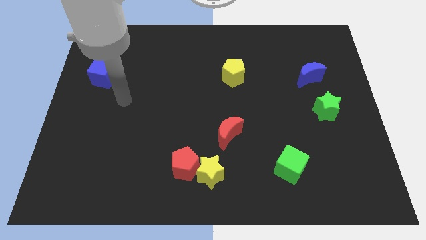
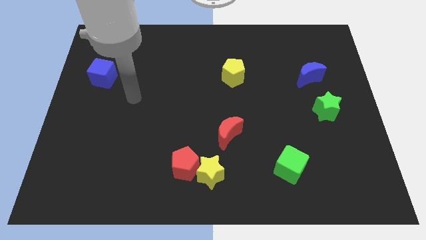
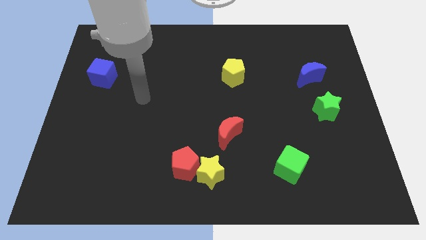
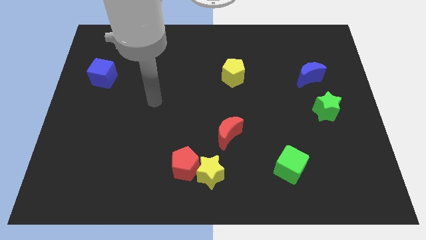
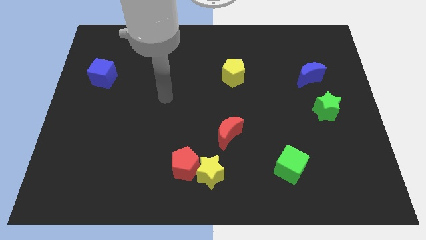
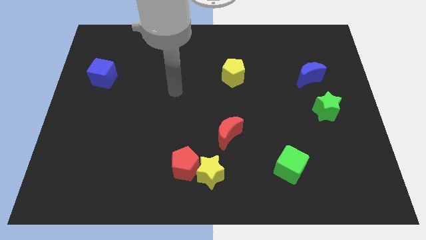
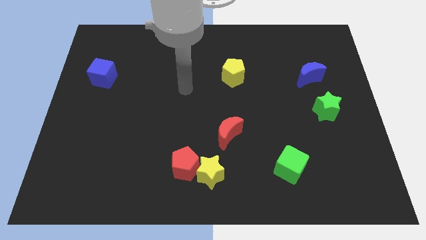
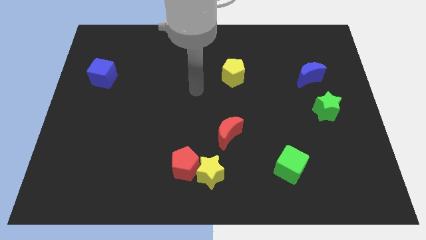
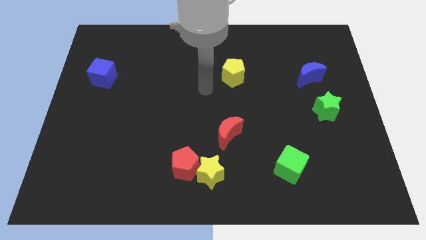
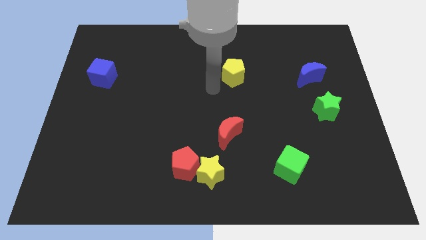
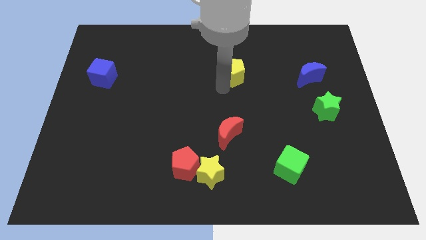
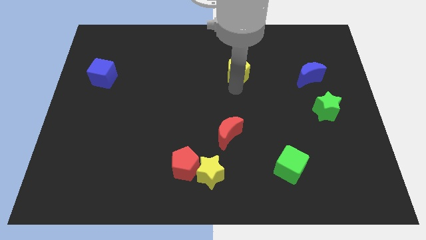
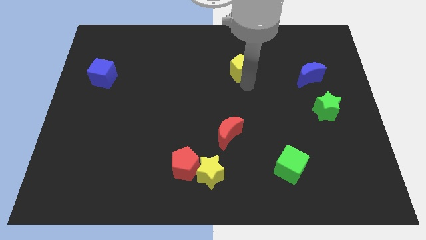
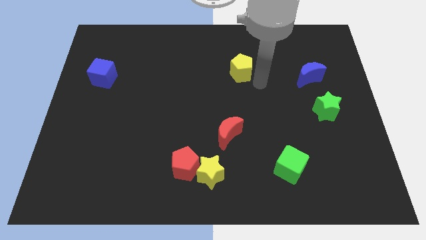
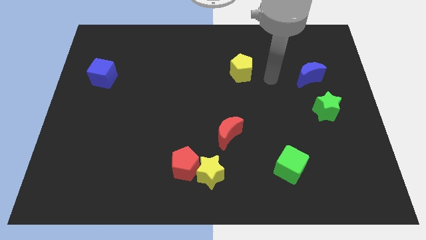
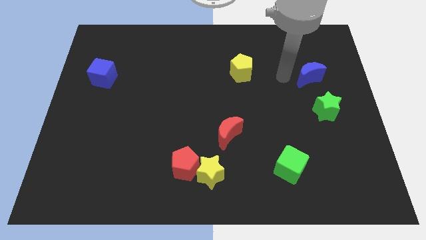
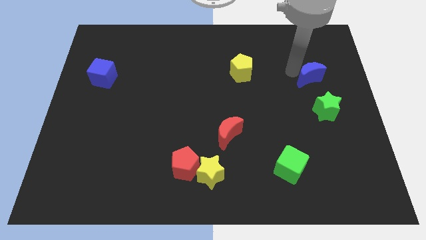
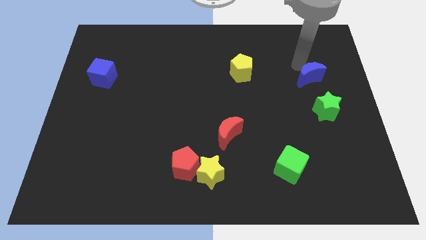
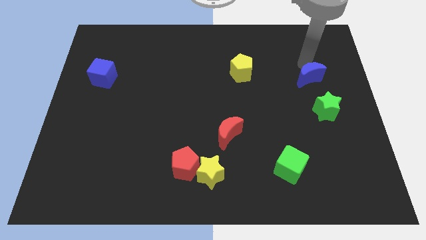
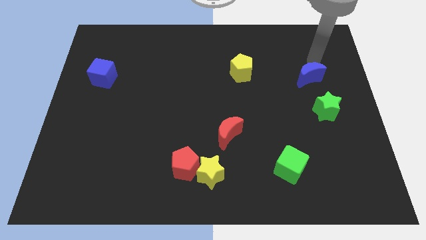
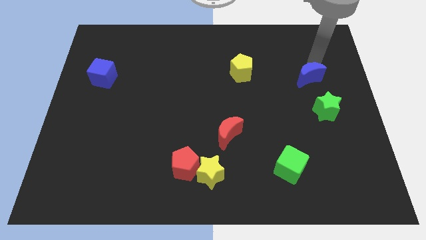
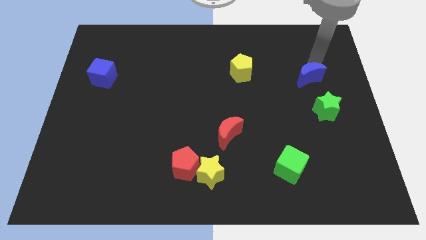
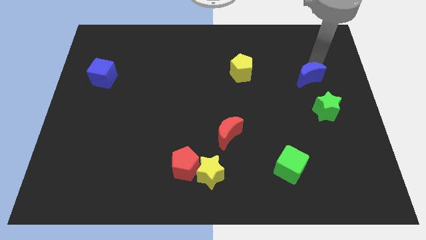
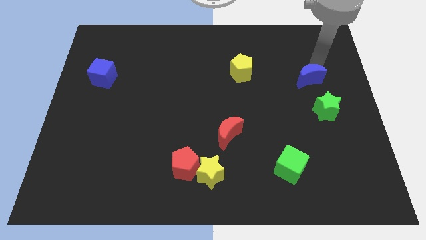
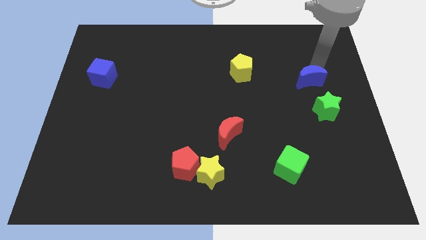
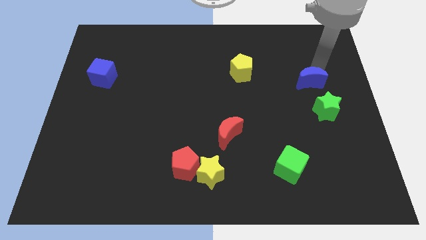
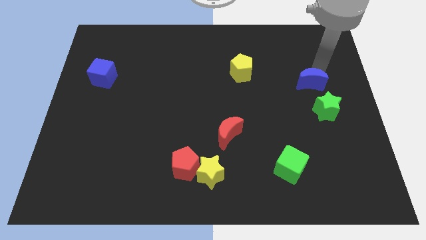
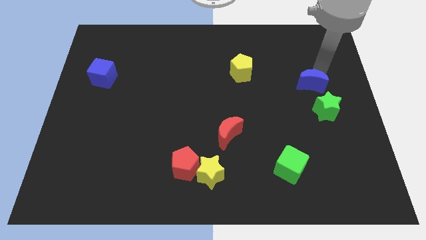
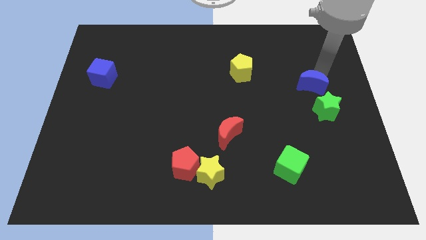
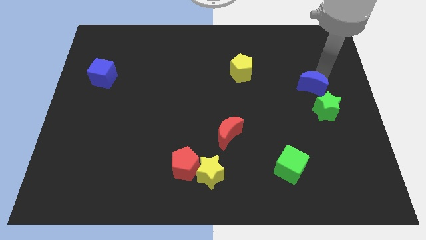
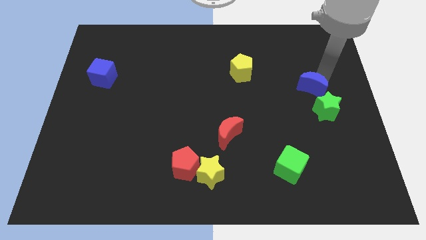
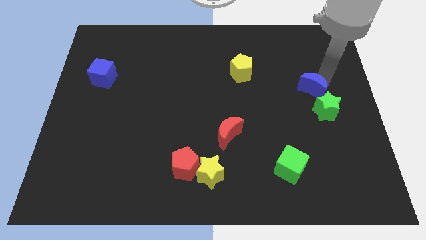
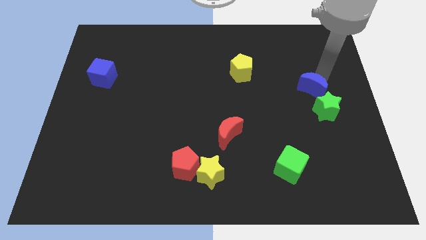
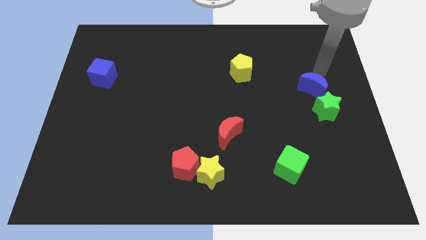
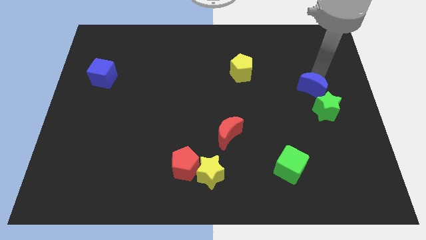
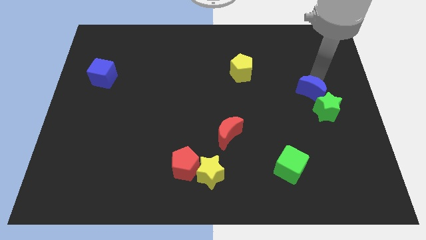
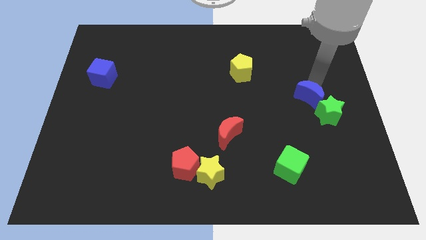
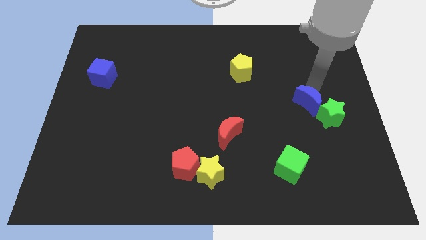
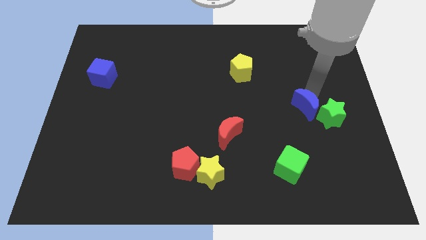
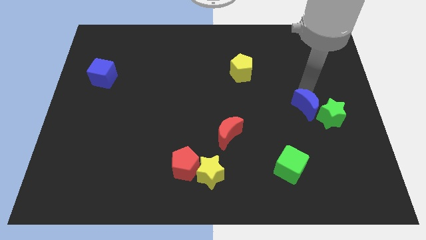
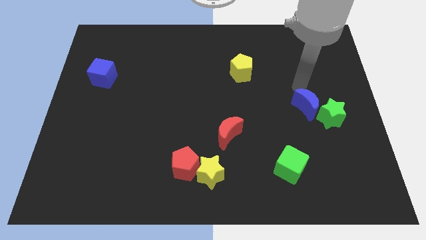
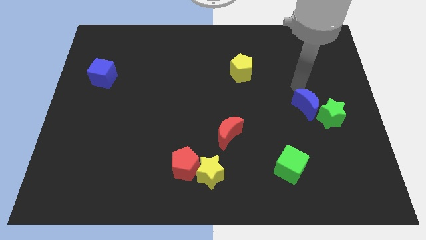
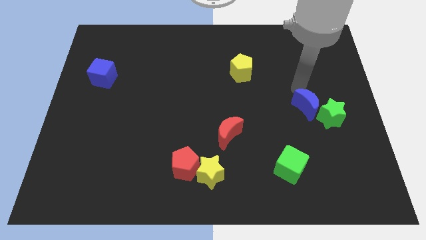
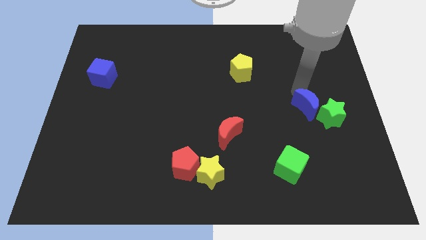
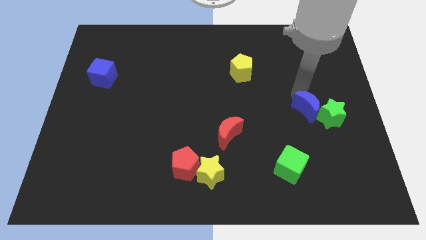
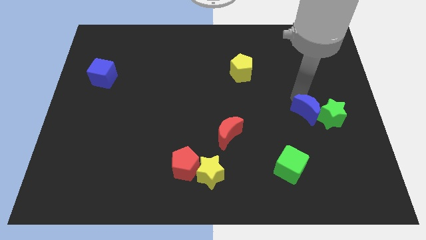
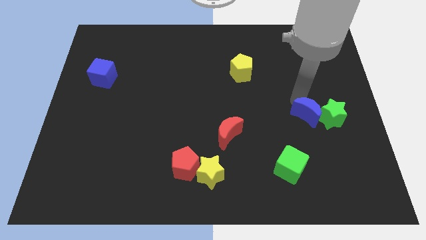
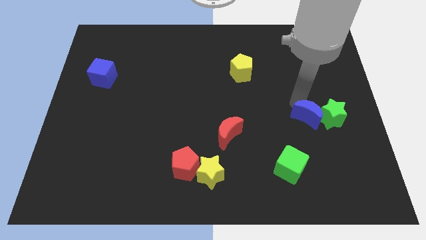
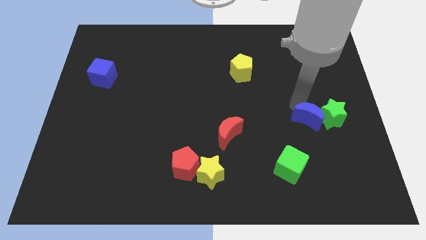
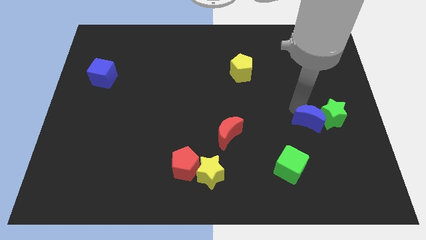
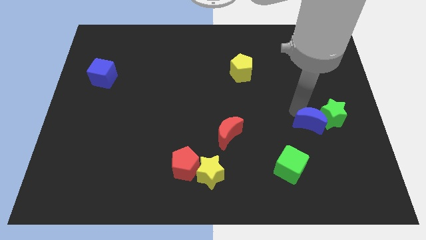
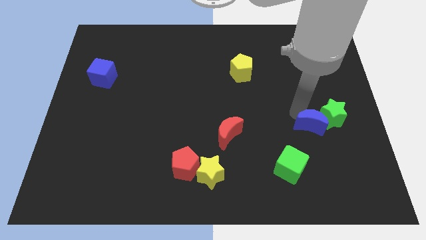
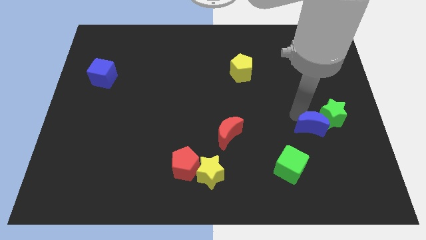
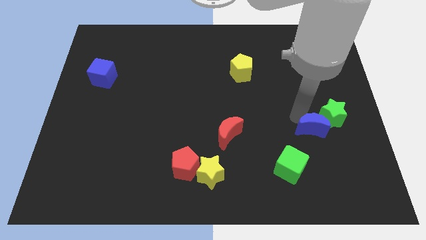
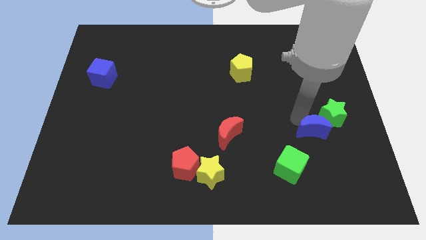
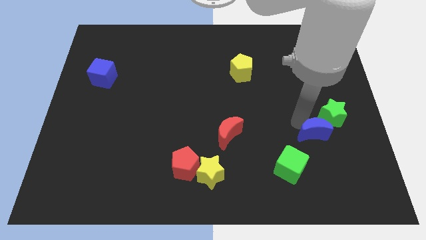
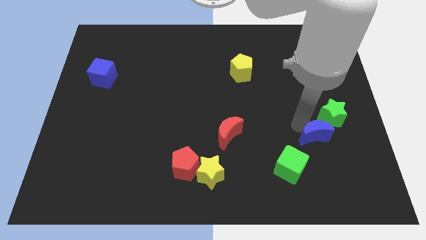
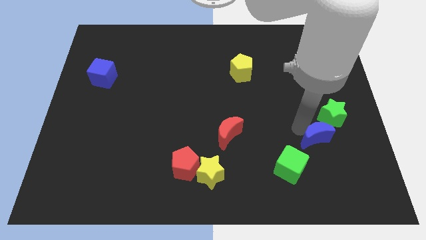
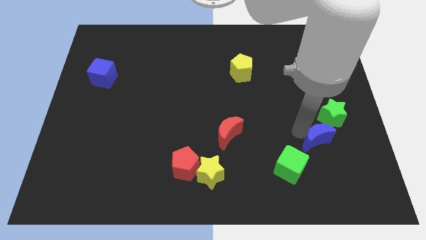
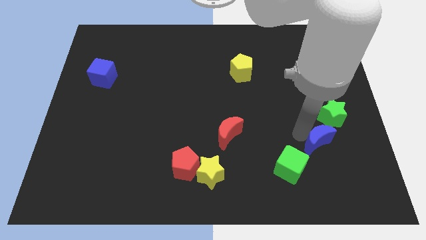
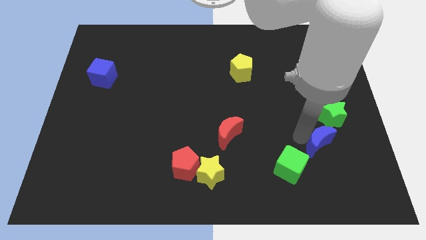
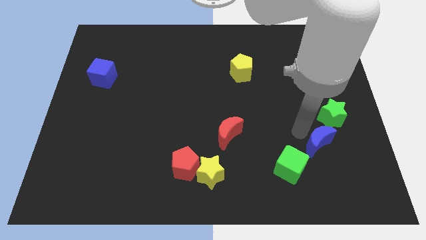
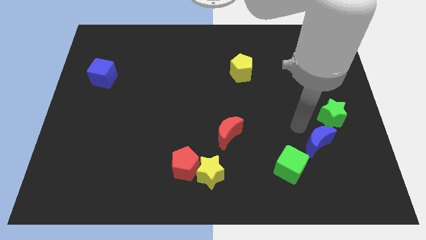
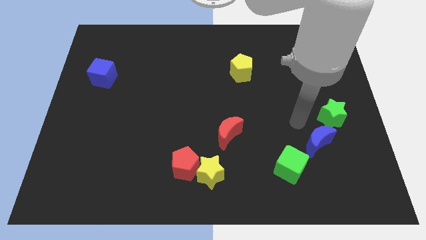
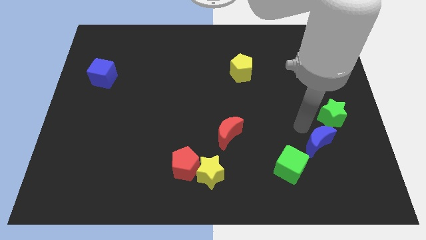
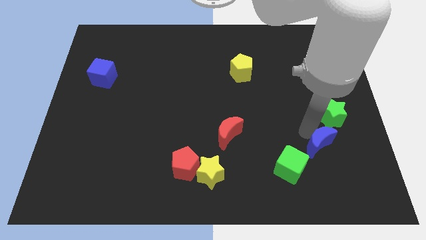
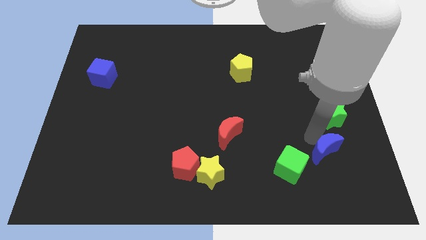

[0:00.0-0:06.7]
slide the blue moon right of the green cube

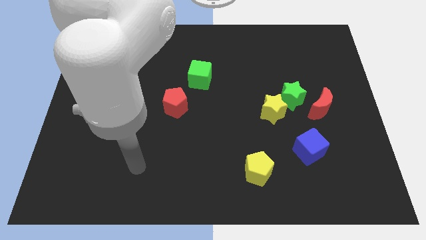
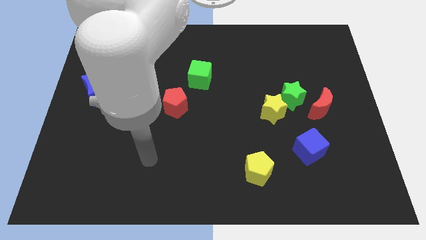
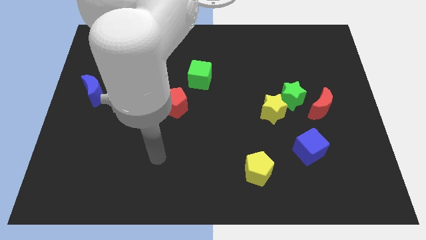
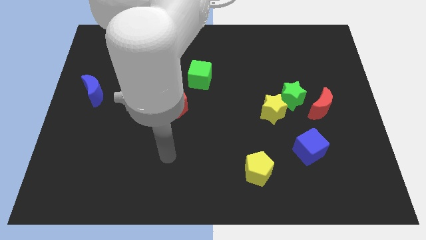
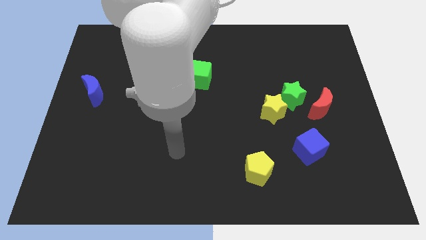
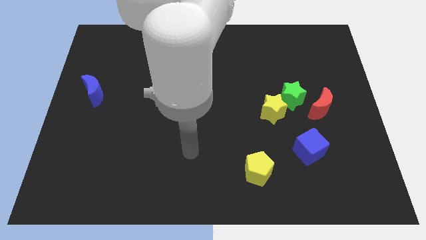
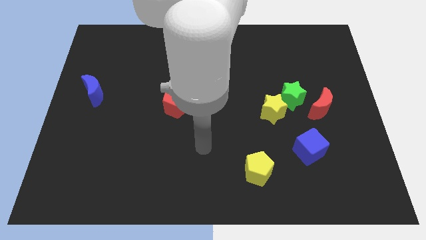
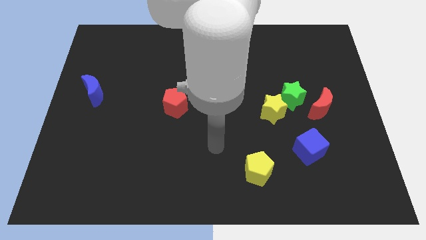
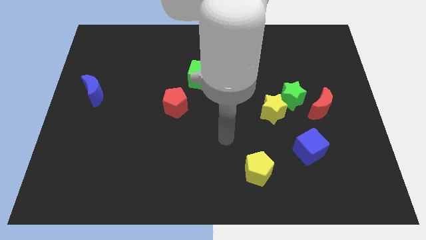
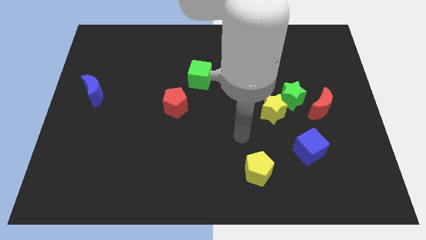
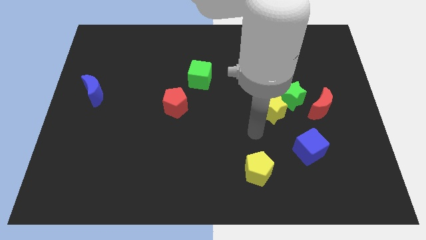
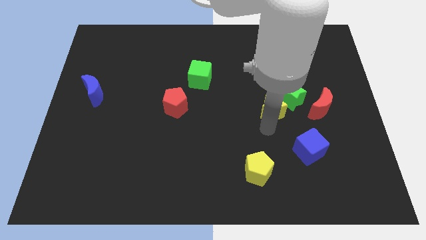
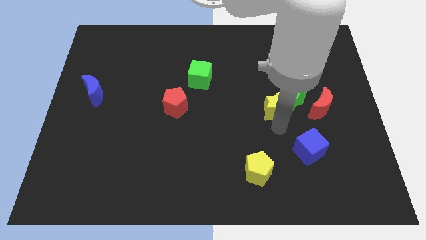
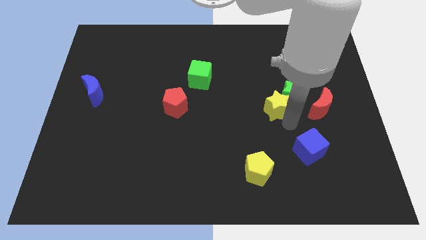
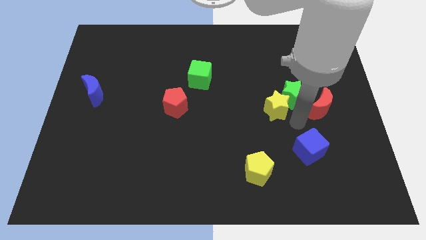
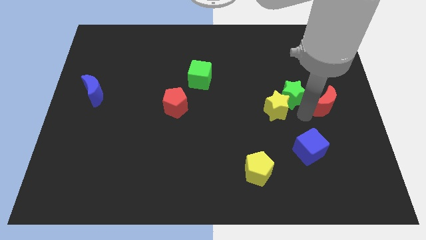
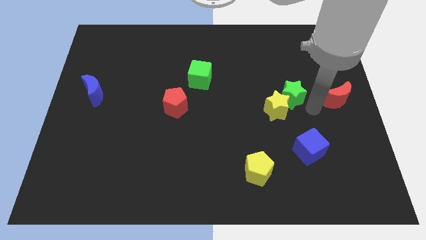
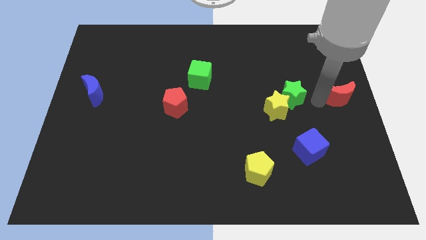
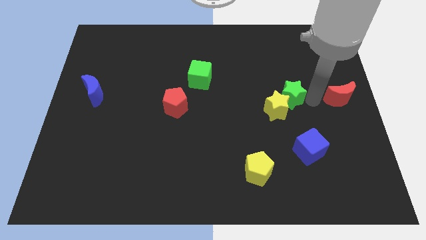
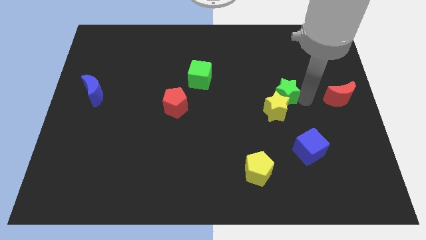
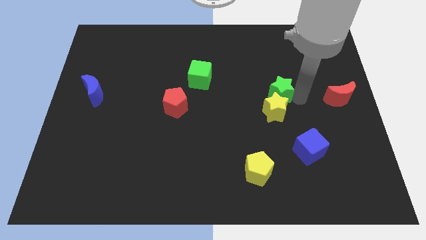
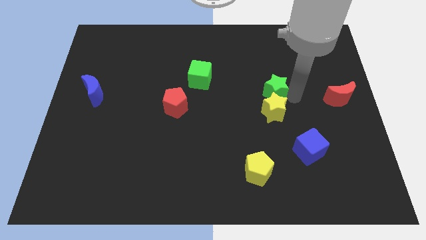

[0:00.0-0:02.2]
put the green star to the top left of the yellow star
